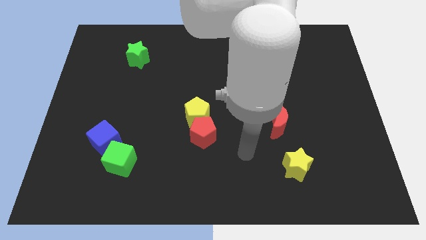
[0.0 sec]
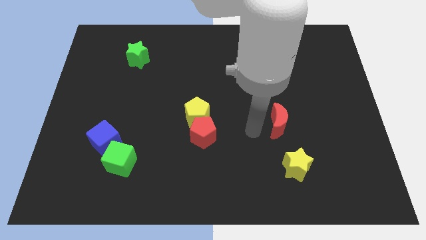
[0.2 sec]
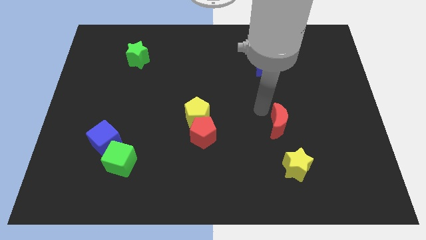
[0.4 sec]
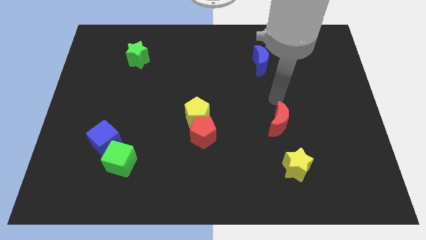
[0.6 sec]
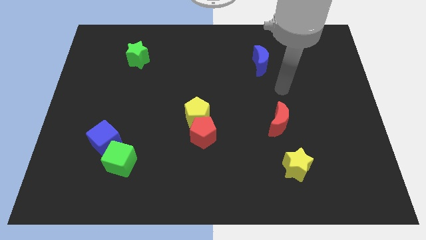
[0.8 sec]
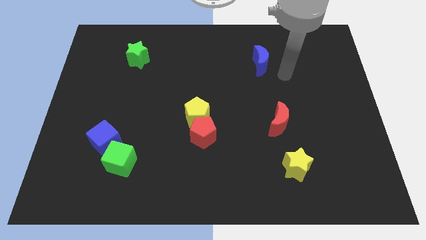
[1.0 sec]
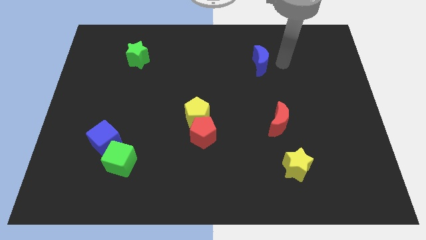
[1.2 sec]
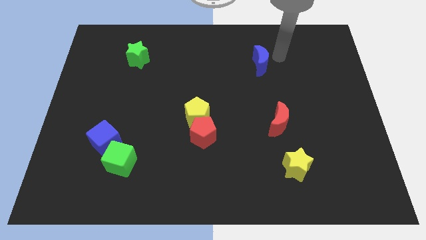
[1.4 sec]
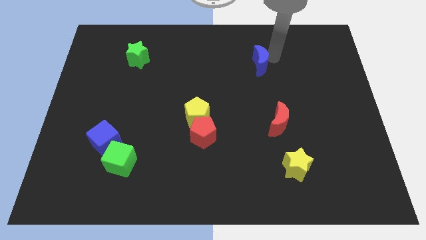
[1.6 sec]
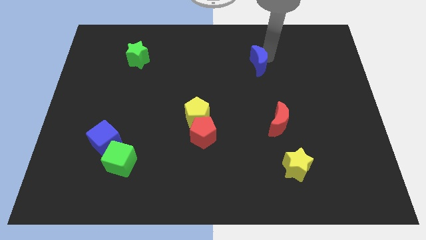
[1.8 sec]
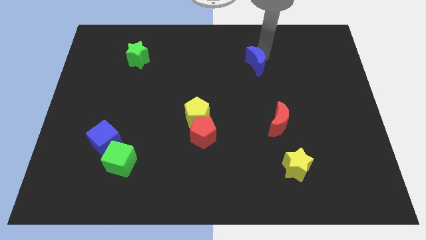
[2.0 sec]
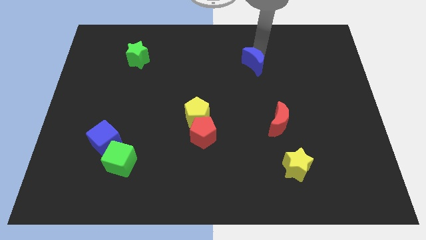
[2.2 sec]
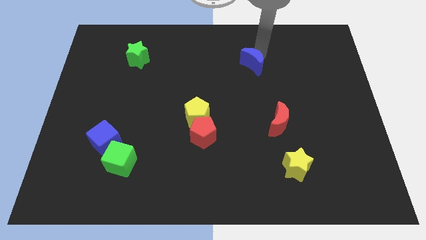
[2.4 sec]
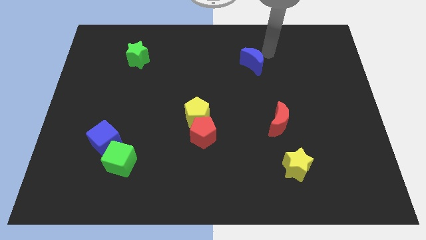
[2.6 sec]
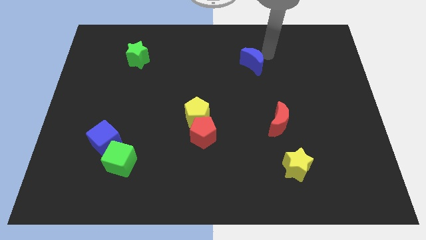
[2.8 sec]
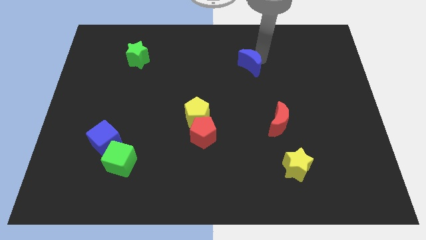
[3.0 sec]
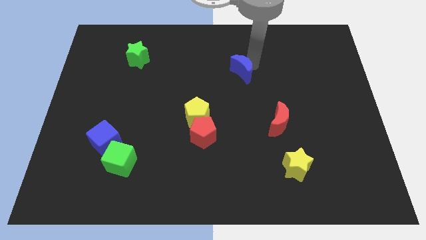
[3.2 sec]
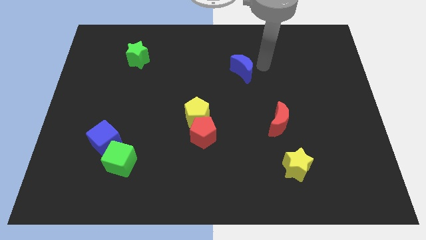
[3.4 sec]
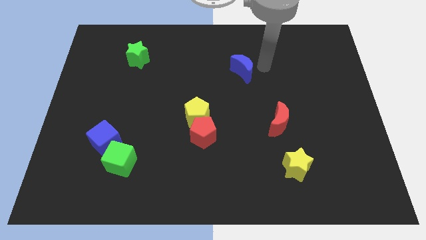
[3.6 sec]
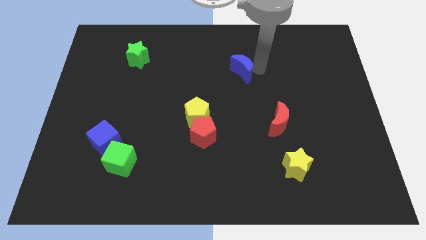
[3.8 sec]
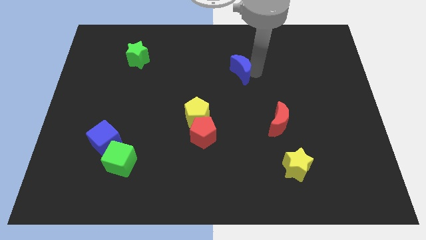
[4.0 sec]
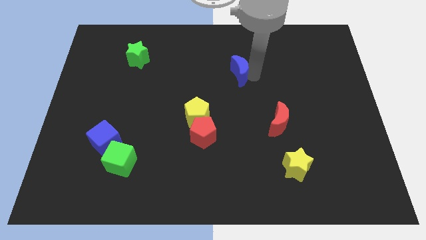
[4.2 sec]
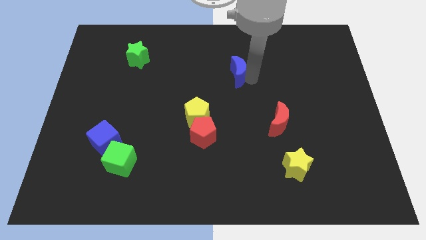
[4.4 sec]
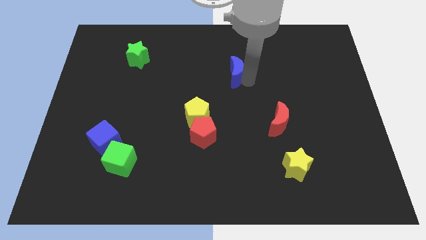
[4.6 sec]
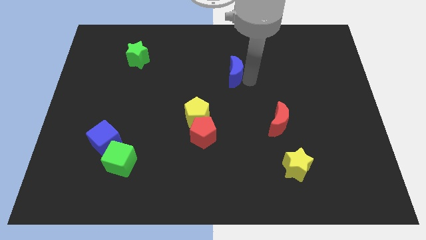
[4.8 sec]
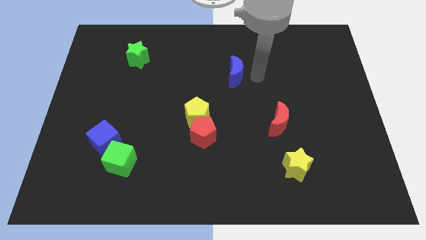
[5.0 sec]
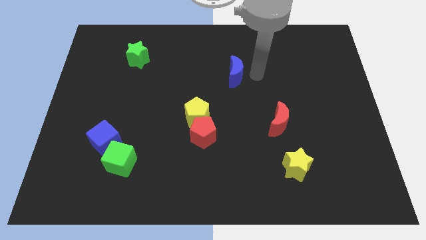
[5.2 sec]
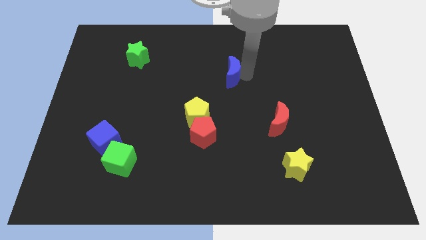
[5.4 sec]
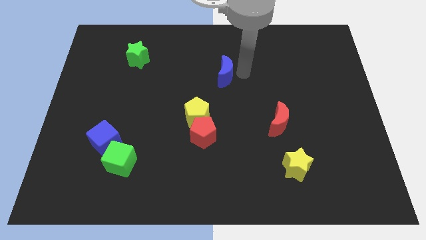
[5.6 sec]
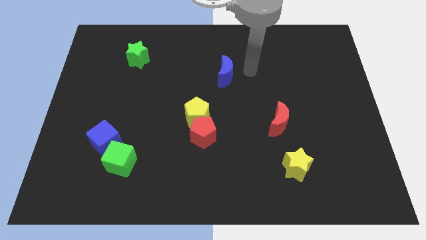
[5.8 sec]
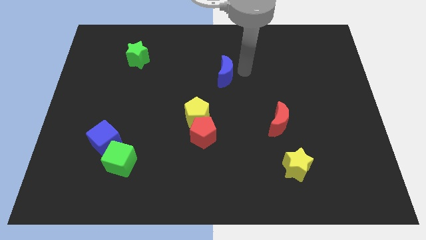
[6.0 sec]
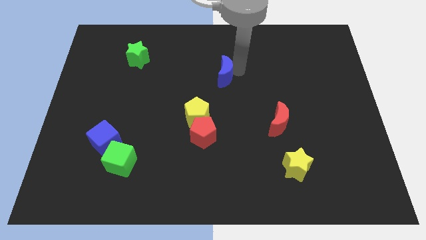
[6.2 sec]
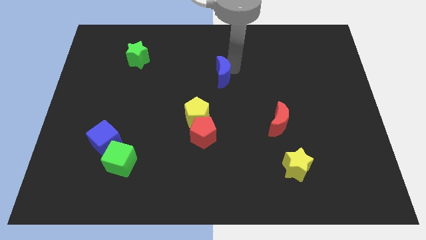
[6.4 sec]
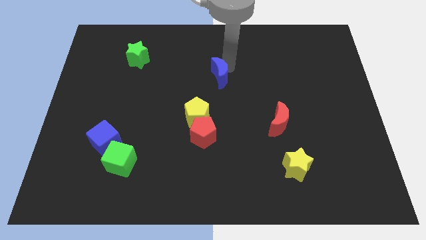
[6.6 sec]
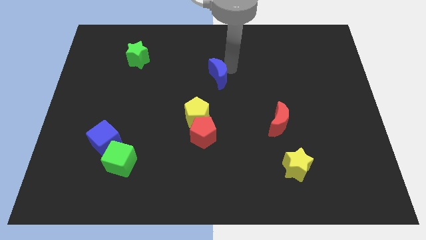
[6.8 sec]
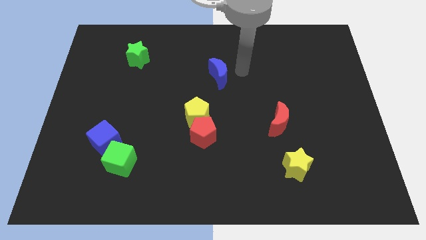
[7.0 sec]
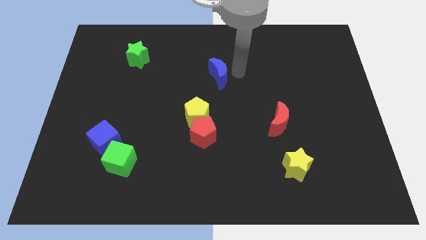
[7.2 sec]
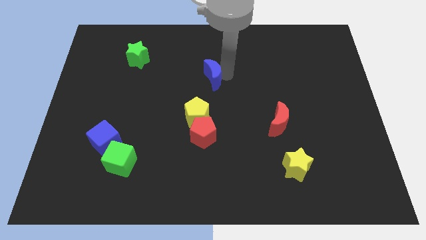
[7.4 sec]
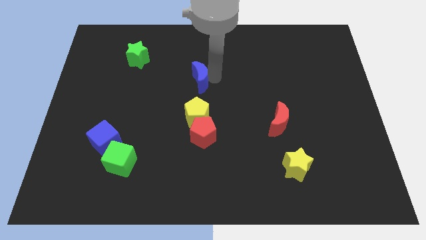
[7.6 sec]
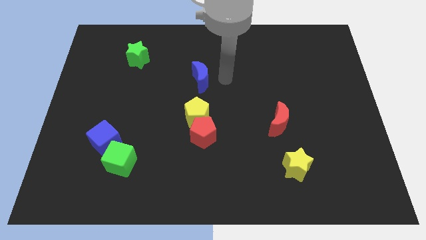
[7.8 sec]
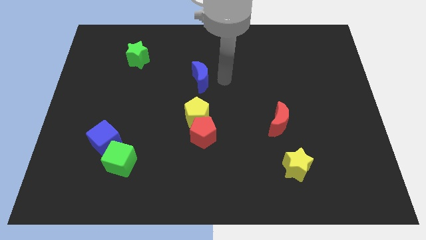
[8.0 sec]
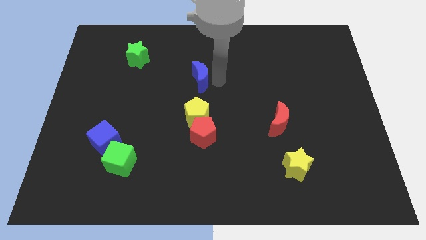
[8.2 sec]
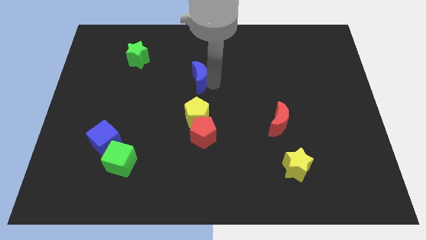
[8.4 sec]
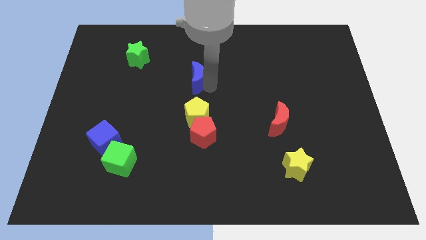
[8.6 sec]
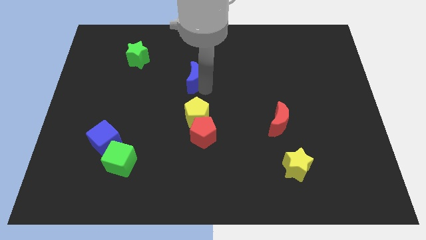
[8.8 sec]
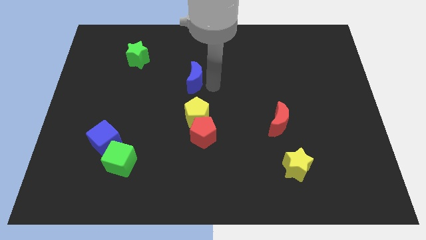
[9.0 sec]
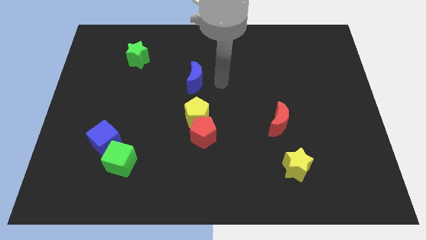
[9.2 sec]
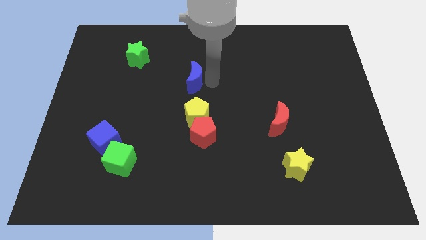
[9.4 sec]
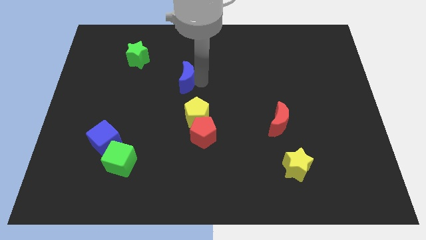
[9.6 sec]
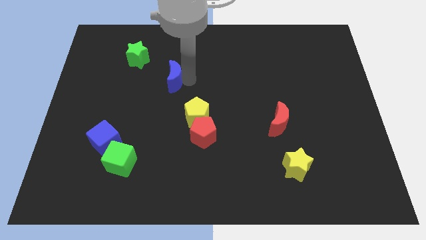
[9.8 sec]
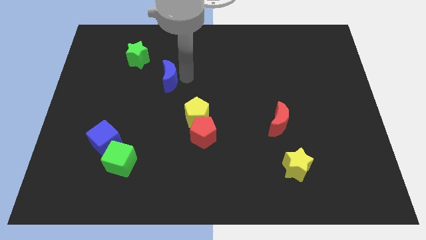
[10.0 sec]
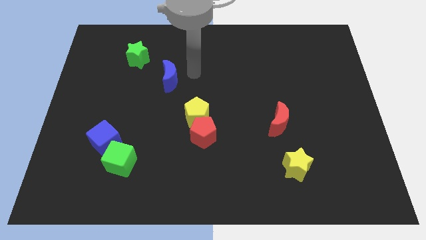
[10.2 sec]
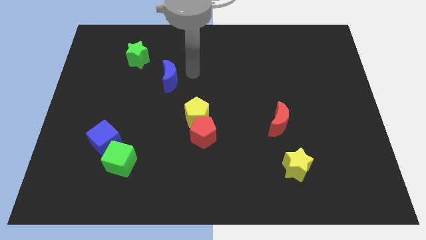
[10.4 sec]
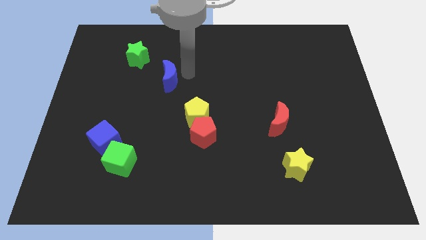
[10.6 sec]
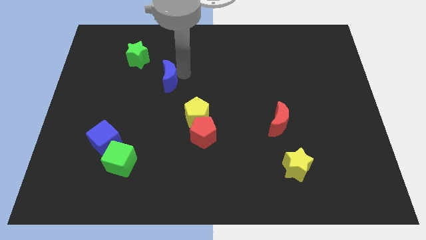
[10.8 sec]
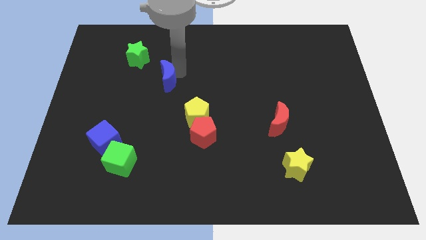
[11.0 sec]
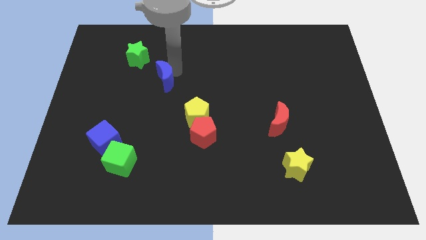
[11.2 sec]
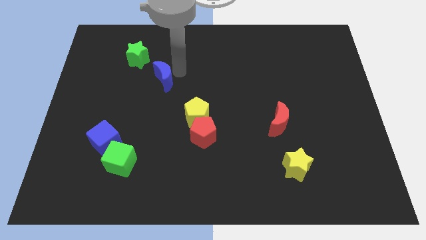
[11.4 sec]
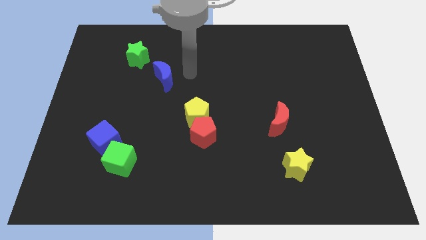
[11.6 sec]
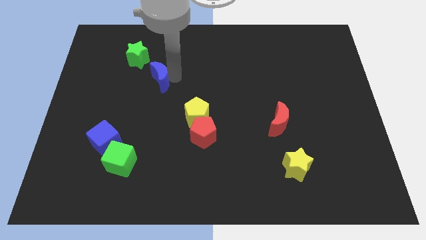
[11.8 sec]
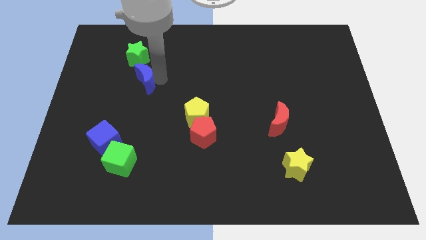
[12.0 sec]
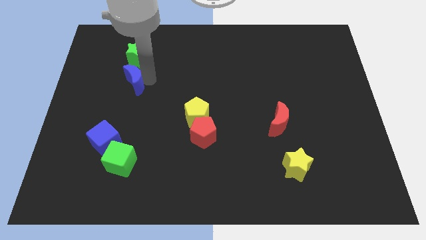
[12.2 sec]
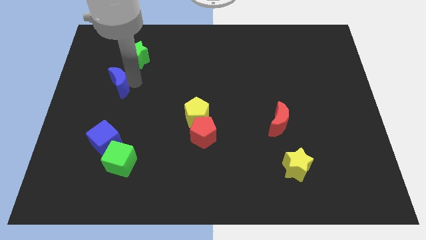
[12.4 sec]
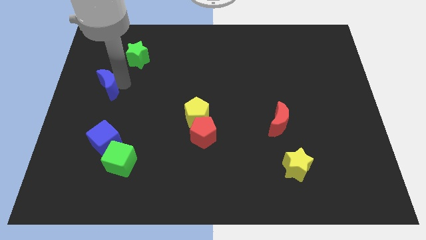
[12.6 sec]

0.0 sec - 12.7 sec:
put the blue moon to the left side

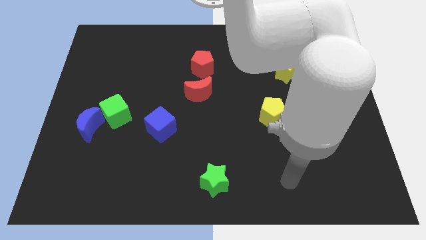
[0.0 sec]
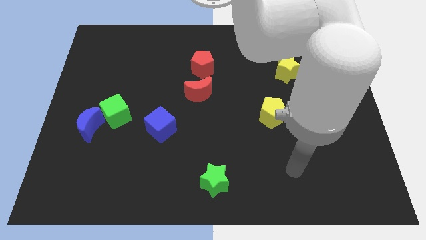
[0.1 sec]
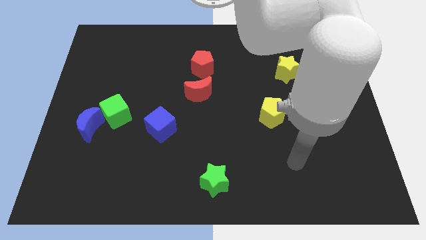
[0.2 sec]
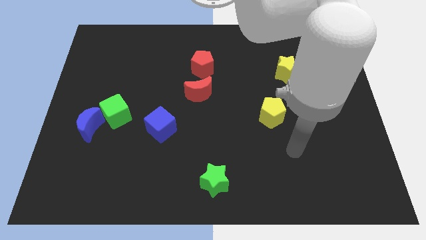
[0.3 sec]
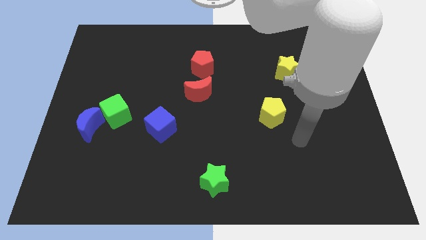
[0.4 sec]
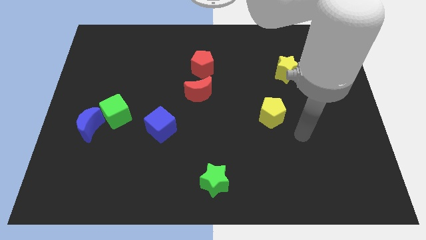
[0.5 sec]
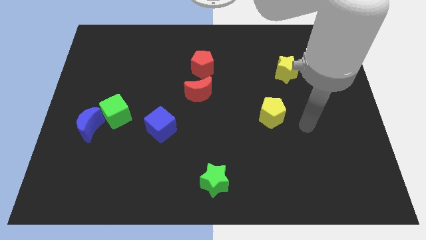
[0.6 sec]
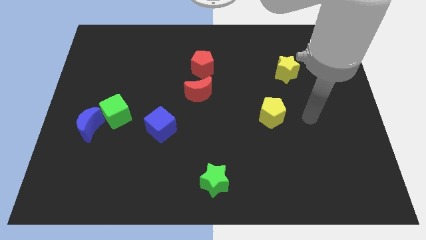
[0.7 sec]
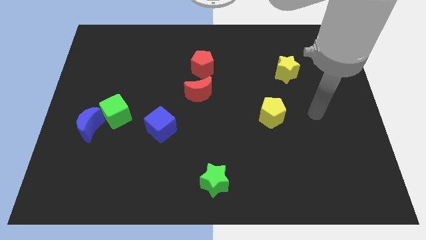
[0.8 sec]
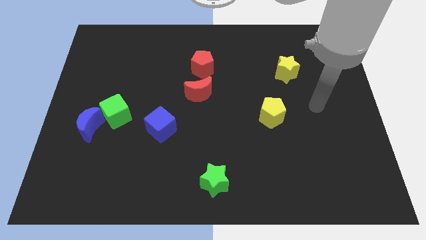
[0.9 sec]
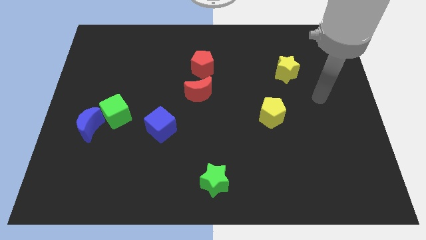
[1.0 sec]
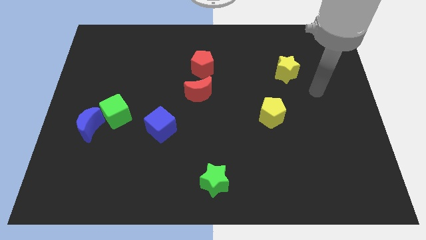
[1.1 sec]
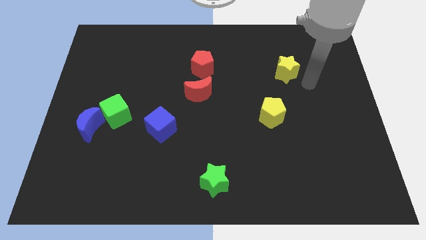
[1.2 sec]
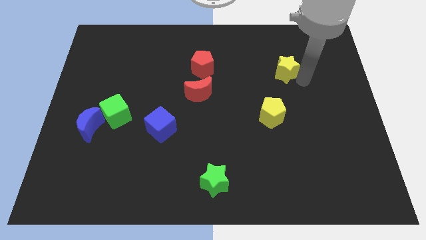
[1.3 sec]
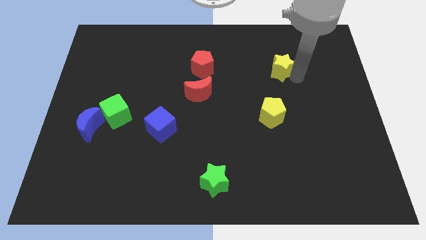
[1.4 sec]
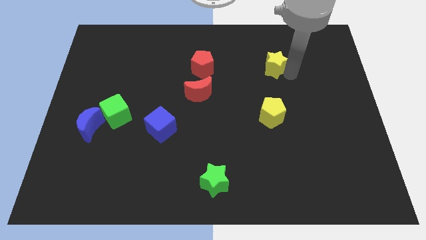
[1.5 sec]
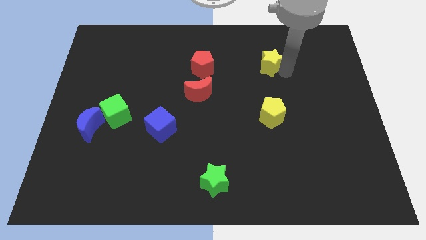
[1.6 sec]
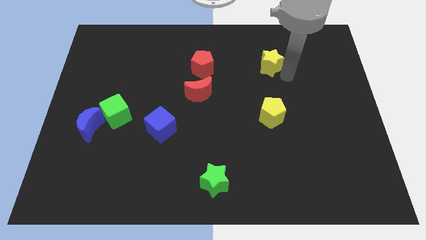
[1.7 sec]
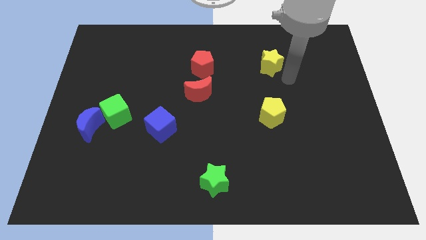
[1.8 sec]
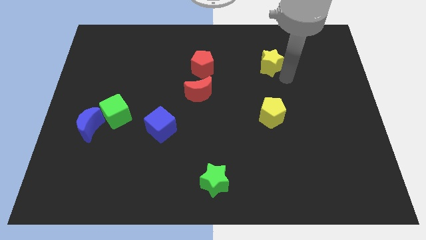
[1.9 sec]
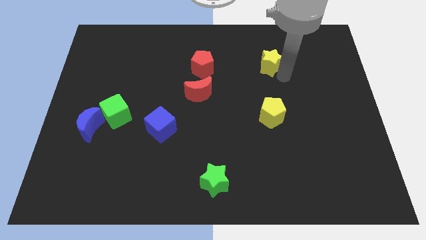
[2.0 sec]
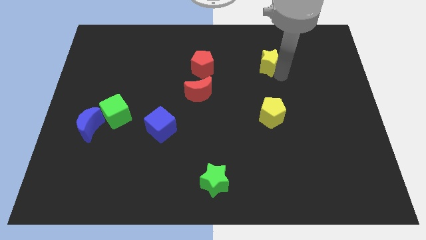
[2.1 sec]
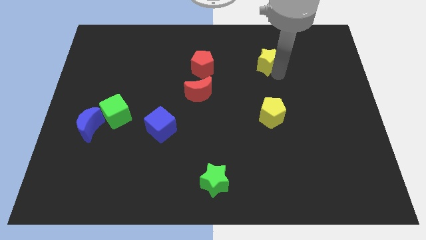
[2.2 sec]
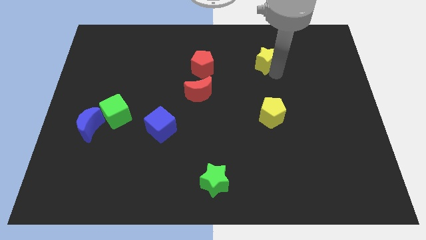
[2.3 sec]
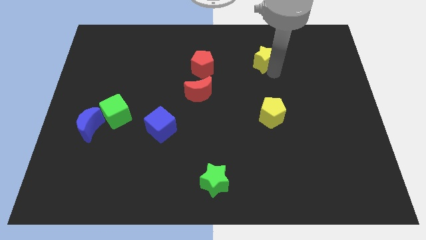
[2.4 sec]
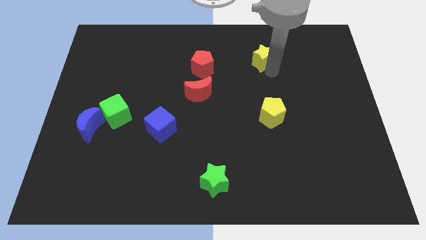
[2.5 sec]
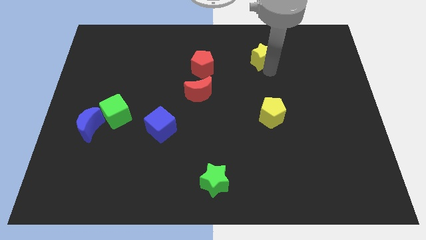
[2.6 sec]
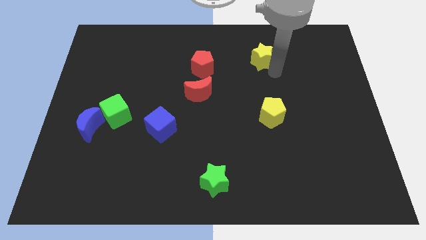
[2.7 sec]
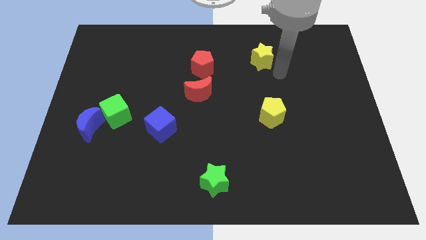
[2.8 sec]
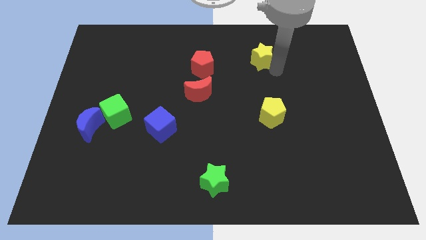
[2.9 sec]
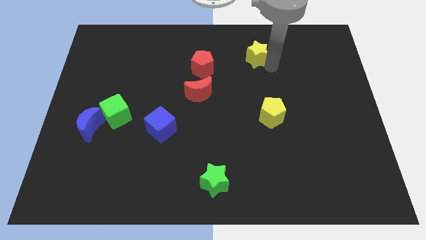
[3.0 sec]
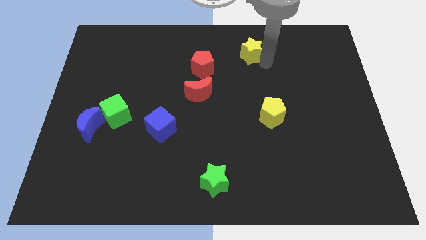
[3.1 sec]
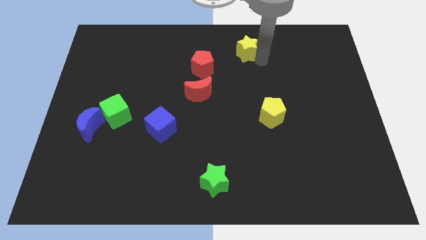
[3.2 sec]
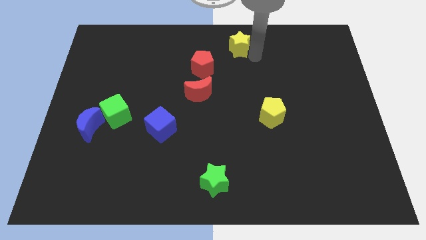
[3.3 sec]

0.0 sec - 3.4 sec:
push the yellow star to the top
